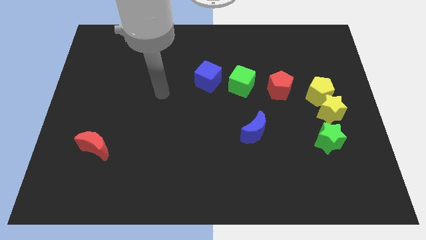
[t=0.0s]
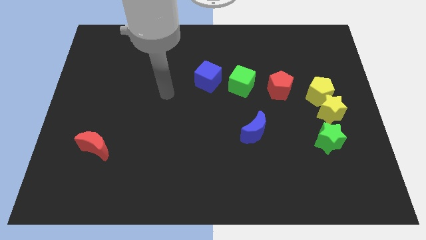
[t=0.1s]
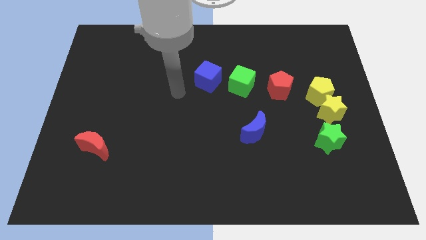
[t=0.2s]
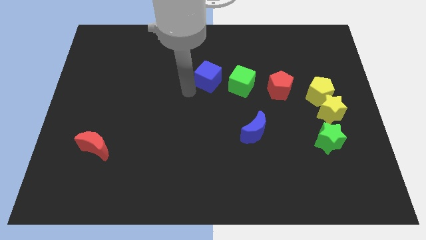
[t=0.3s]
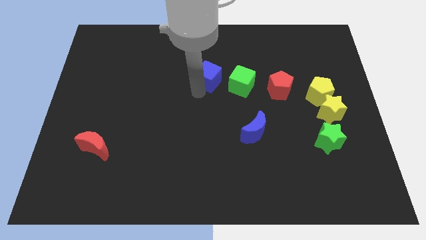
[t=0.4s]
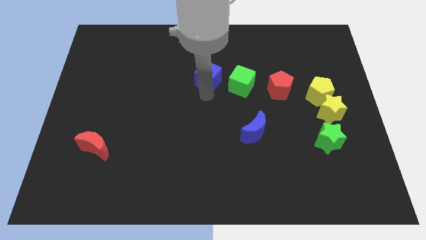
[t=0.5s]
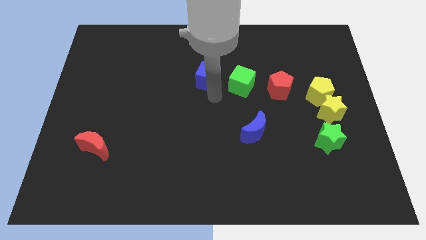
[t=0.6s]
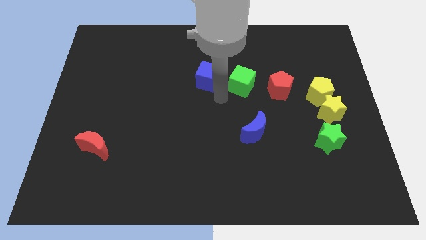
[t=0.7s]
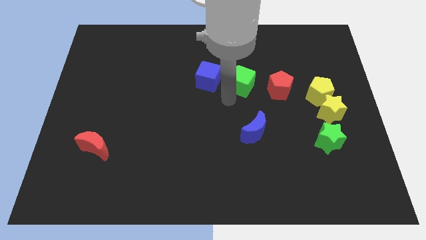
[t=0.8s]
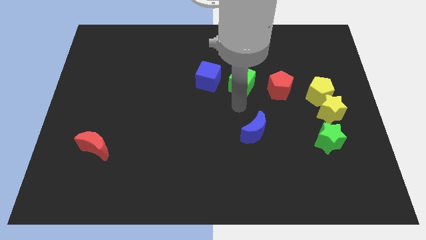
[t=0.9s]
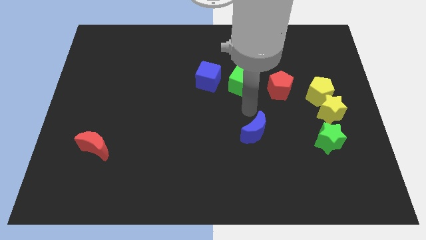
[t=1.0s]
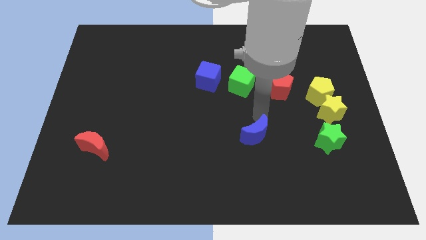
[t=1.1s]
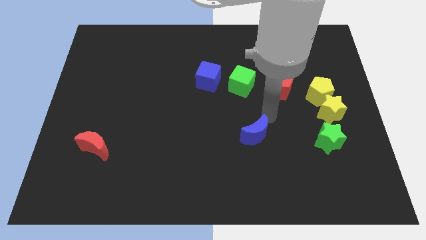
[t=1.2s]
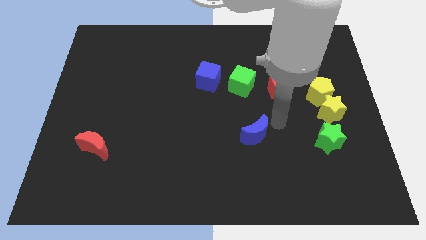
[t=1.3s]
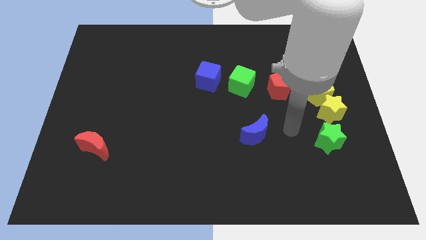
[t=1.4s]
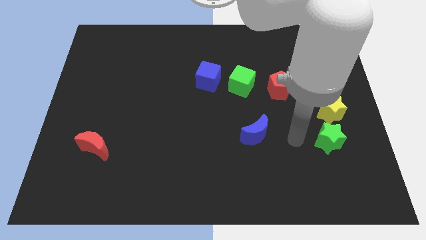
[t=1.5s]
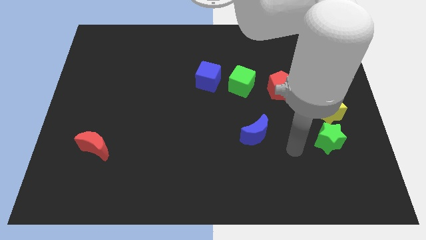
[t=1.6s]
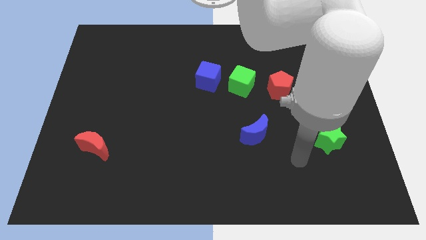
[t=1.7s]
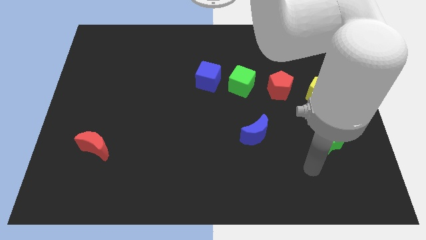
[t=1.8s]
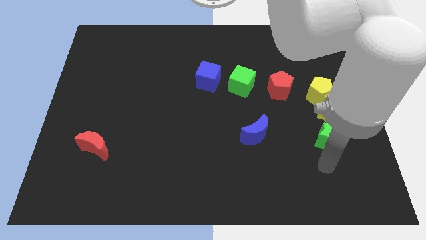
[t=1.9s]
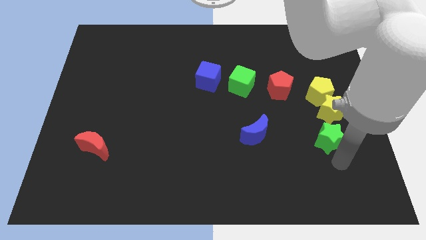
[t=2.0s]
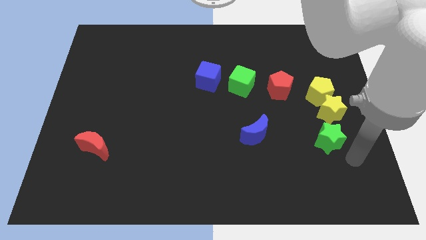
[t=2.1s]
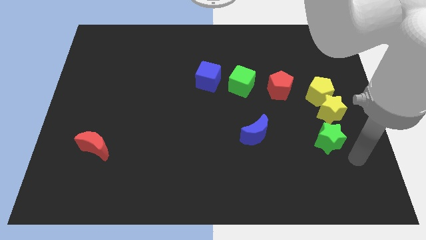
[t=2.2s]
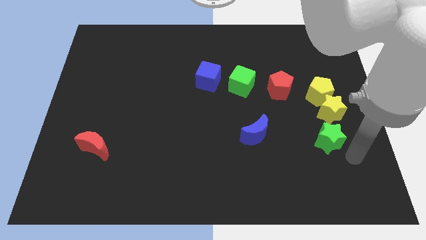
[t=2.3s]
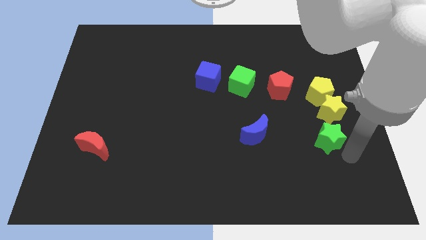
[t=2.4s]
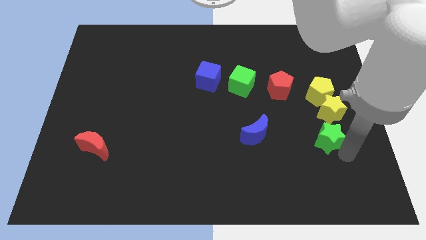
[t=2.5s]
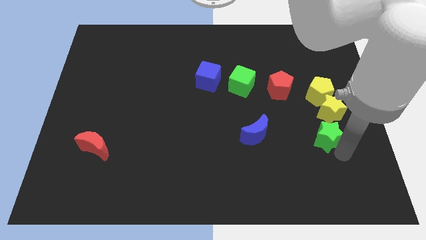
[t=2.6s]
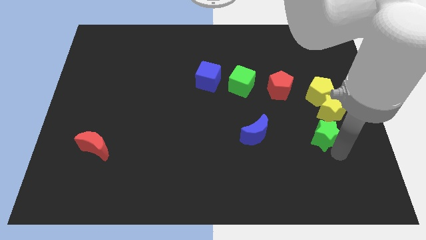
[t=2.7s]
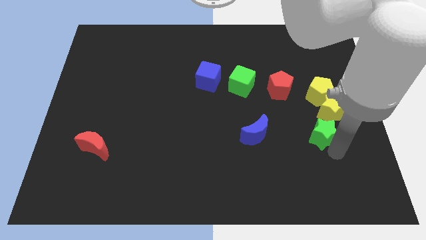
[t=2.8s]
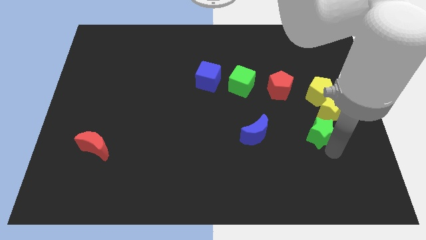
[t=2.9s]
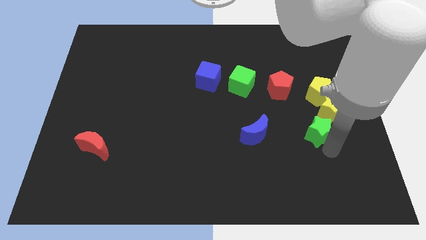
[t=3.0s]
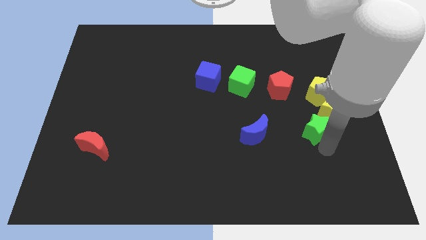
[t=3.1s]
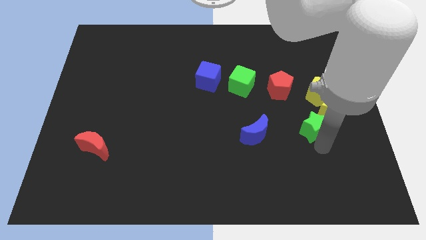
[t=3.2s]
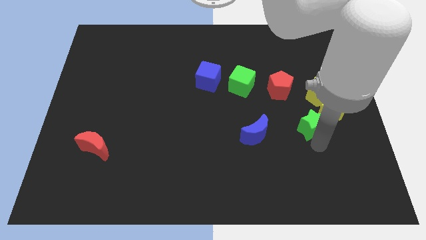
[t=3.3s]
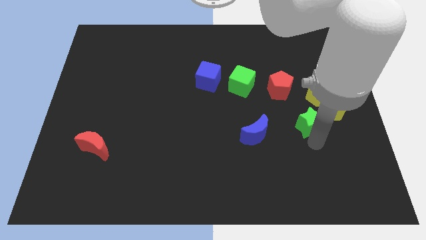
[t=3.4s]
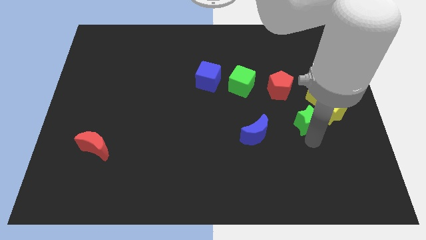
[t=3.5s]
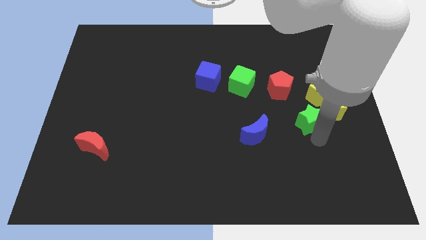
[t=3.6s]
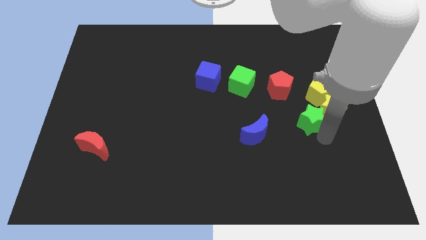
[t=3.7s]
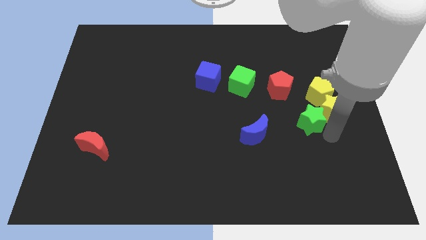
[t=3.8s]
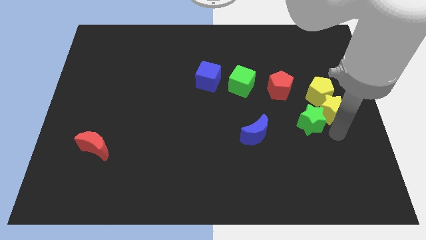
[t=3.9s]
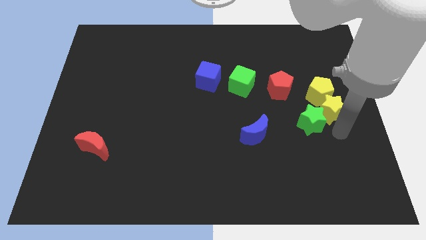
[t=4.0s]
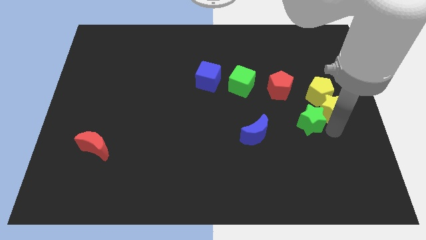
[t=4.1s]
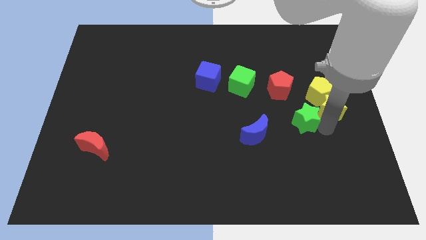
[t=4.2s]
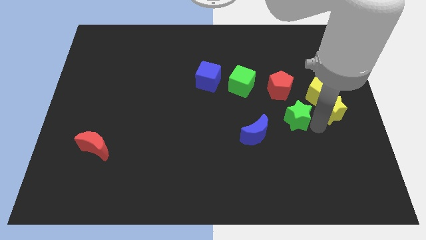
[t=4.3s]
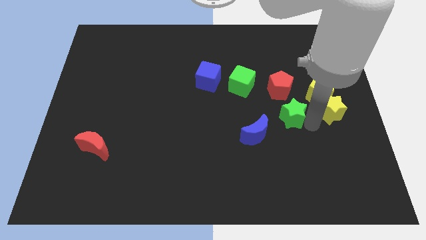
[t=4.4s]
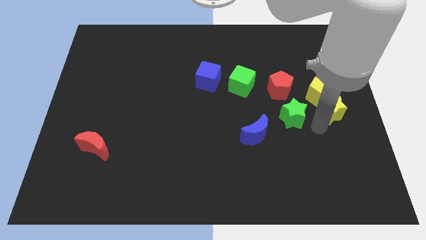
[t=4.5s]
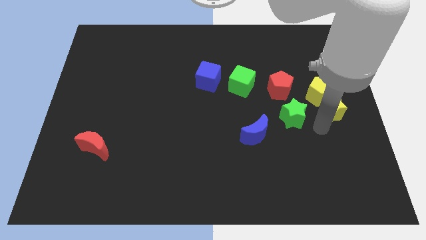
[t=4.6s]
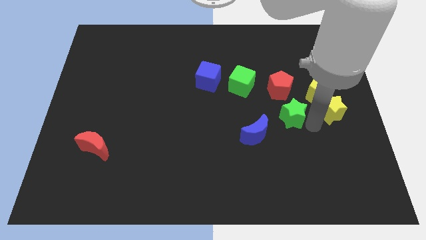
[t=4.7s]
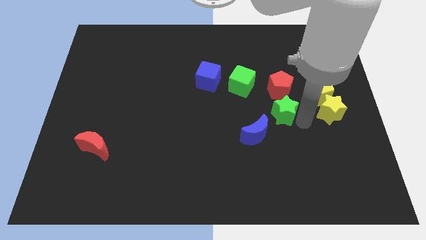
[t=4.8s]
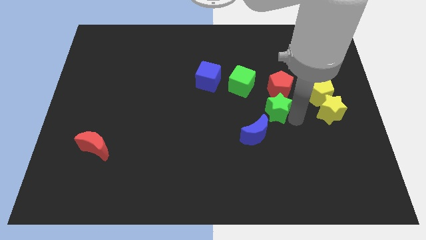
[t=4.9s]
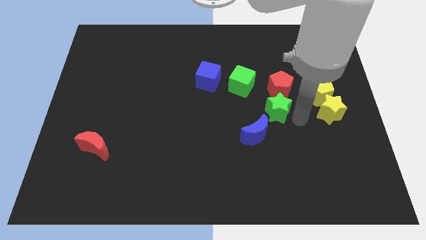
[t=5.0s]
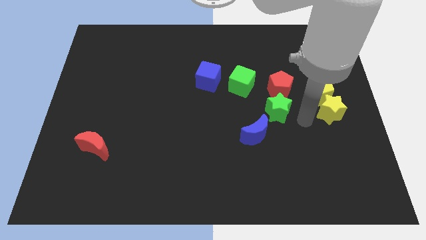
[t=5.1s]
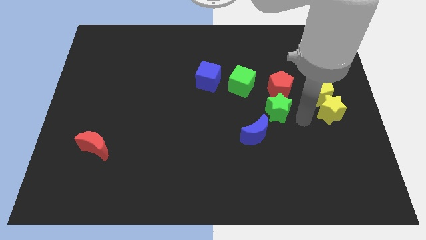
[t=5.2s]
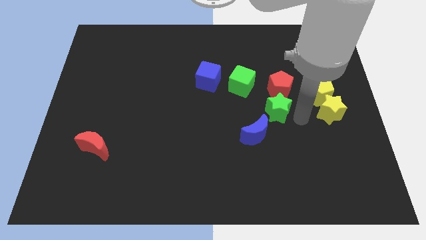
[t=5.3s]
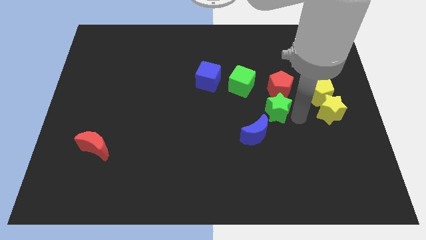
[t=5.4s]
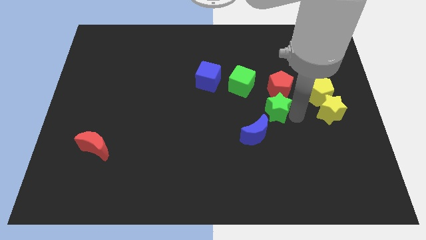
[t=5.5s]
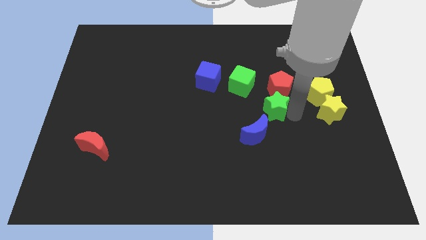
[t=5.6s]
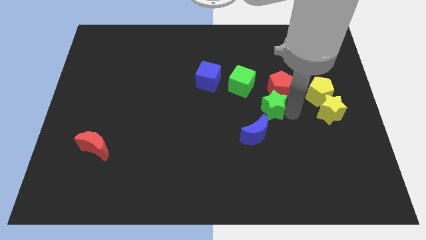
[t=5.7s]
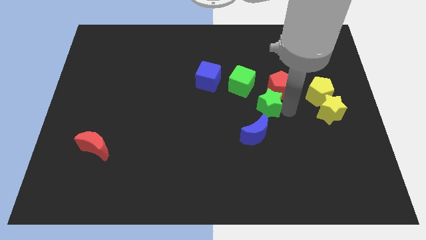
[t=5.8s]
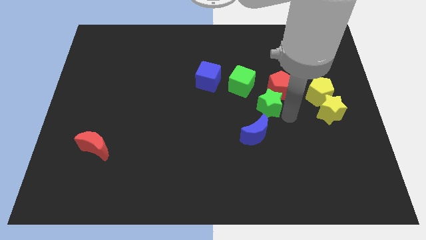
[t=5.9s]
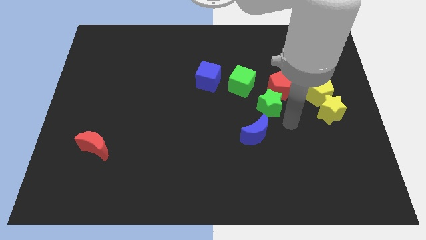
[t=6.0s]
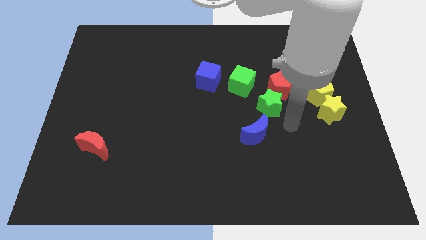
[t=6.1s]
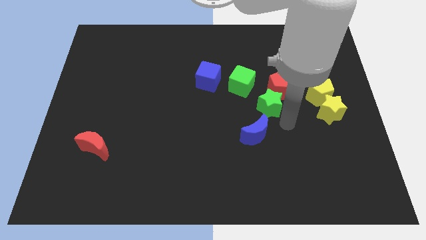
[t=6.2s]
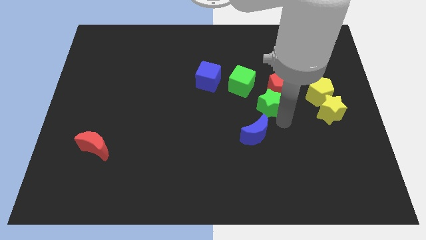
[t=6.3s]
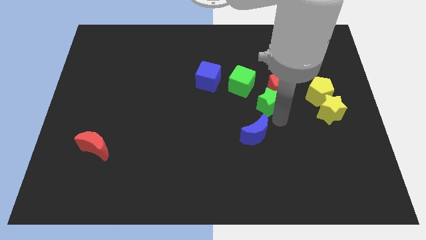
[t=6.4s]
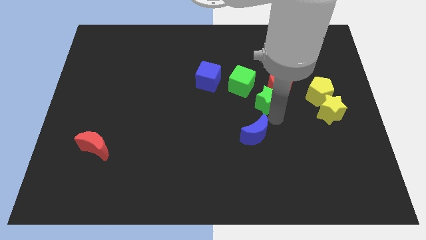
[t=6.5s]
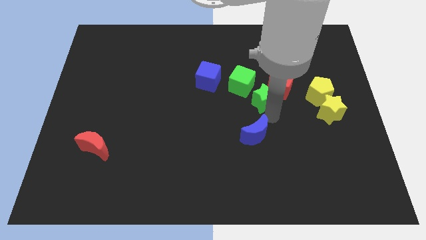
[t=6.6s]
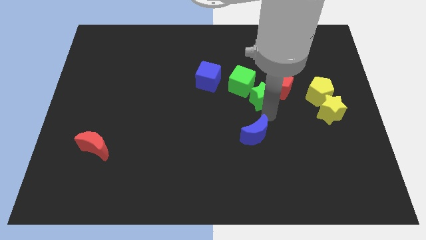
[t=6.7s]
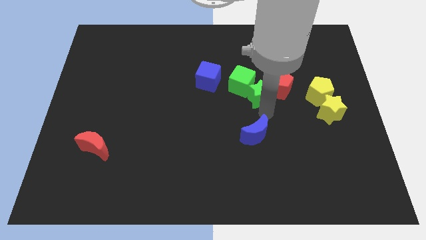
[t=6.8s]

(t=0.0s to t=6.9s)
move the green star close to the green cube
